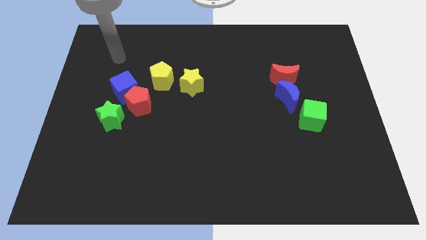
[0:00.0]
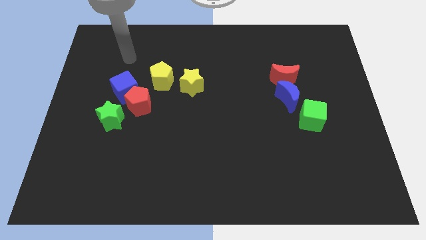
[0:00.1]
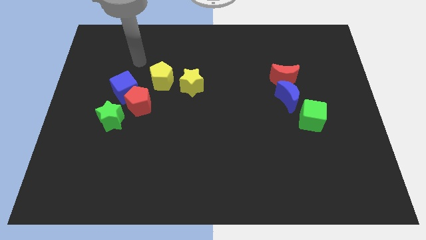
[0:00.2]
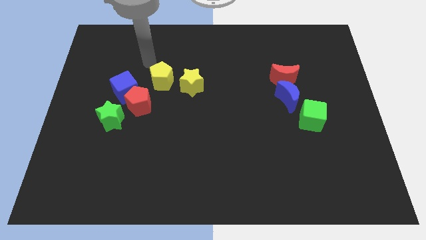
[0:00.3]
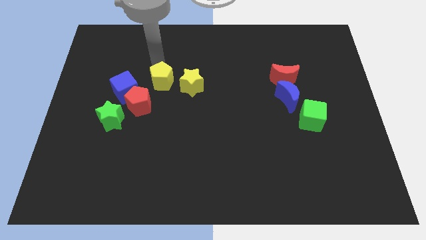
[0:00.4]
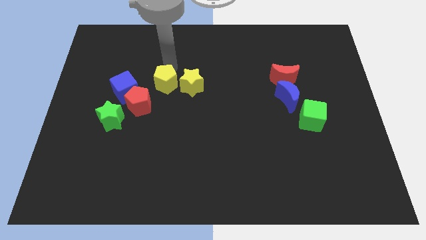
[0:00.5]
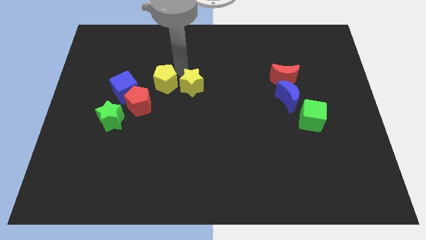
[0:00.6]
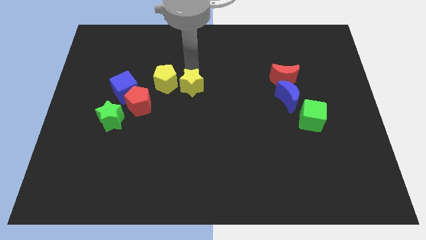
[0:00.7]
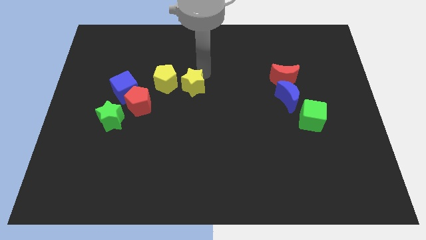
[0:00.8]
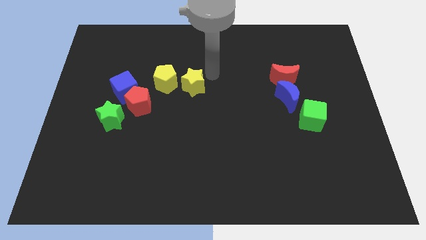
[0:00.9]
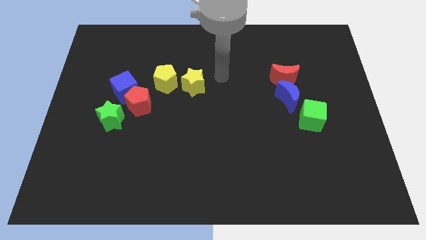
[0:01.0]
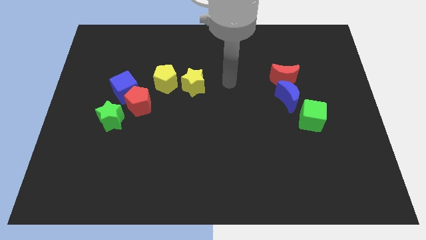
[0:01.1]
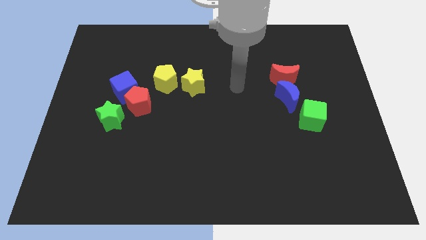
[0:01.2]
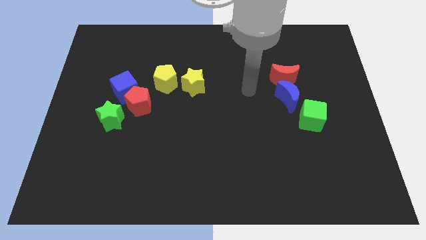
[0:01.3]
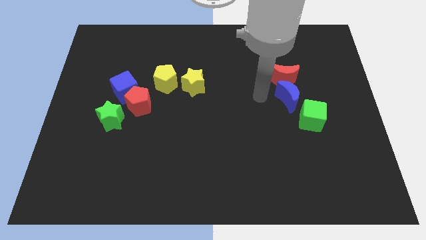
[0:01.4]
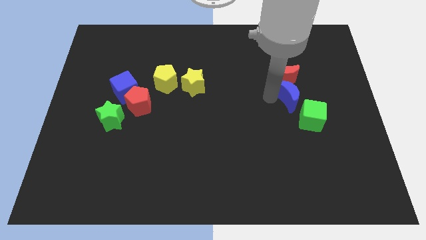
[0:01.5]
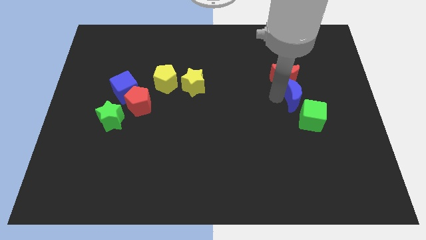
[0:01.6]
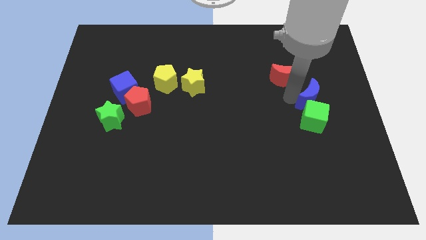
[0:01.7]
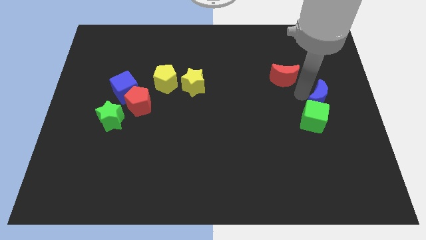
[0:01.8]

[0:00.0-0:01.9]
separate the red moon from the blue moon

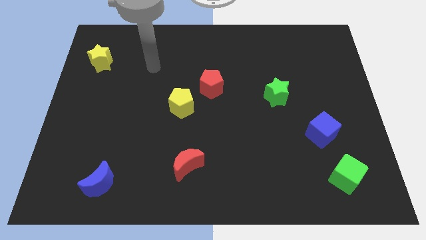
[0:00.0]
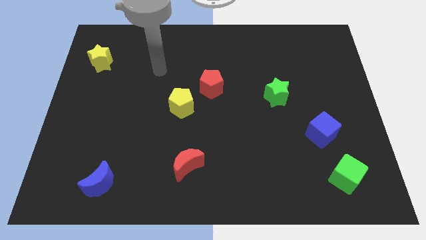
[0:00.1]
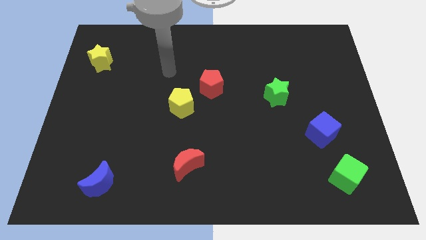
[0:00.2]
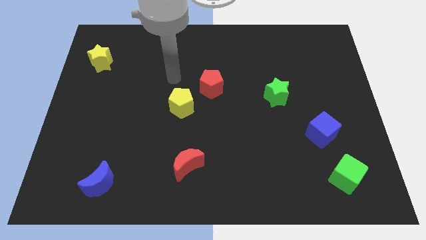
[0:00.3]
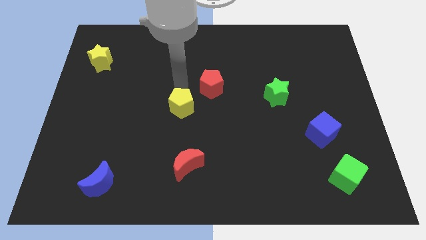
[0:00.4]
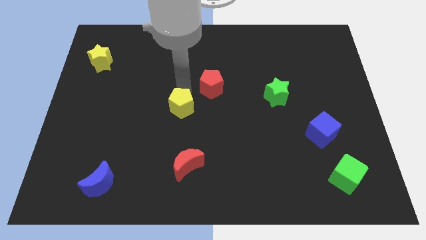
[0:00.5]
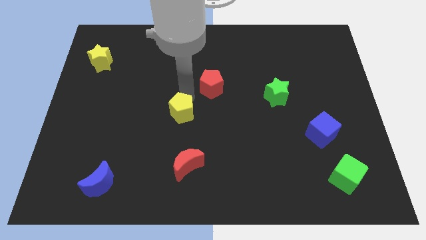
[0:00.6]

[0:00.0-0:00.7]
move the red pentagon away from the yellow pentagon

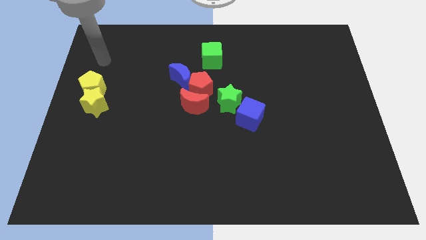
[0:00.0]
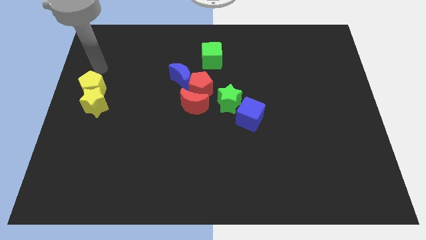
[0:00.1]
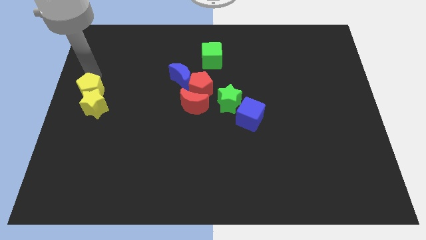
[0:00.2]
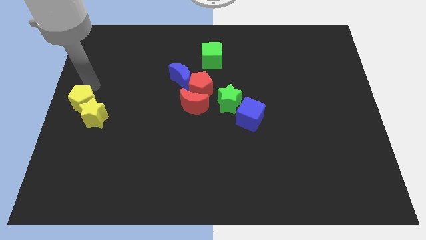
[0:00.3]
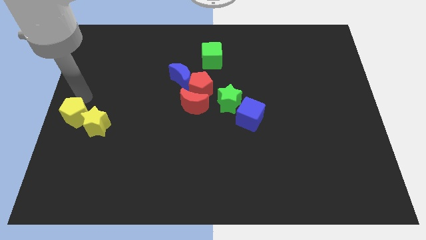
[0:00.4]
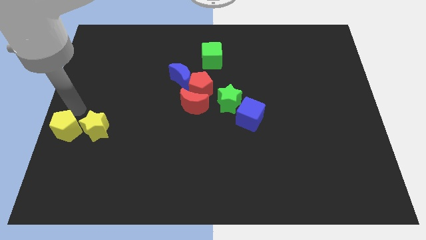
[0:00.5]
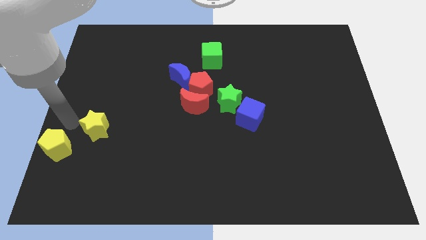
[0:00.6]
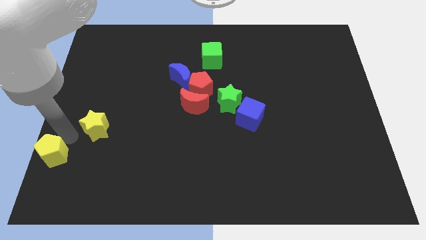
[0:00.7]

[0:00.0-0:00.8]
separate the yellow star from the yellow pentagon

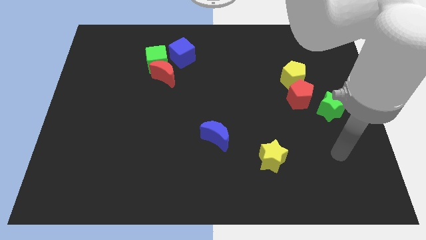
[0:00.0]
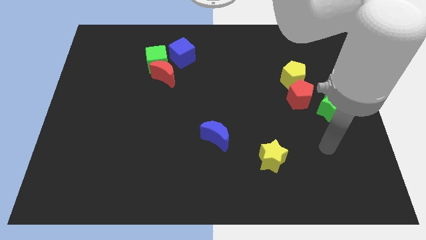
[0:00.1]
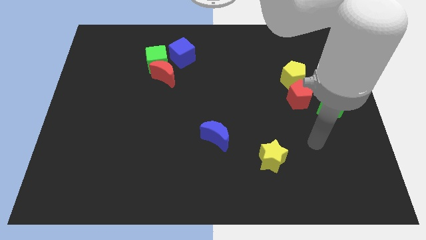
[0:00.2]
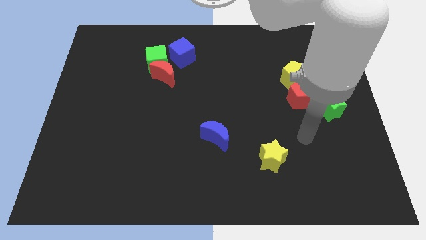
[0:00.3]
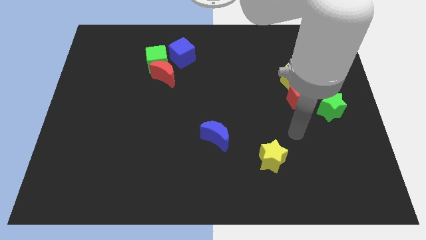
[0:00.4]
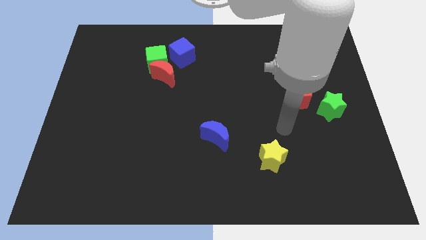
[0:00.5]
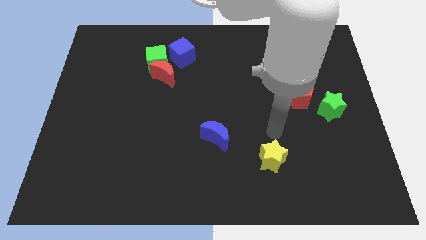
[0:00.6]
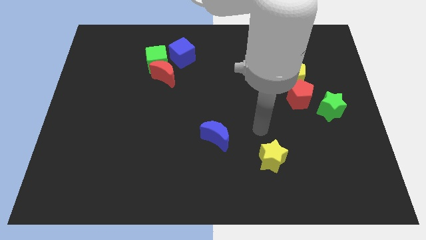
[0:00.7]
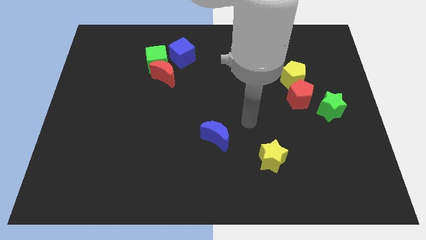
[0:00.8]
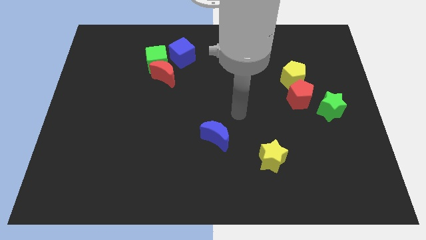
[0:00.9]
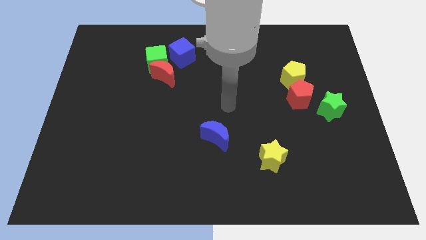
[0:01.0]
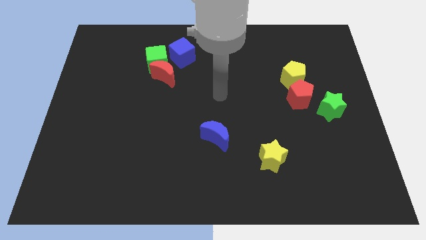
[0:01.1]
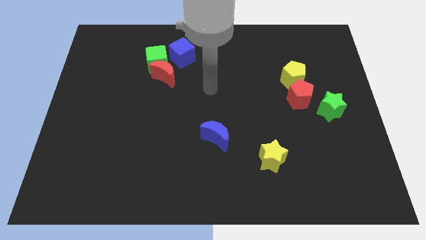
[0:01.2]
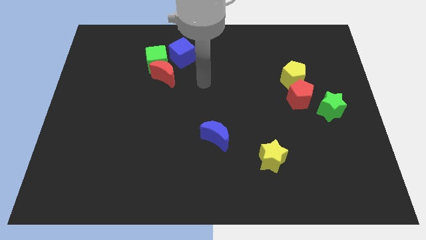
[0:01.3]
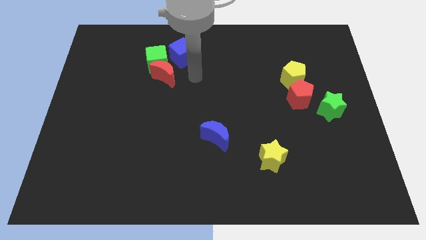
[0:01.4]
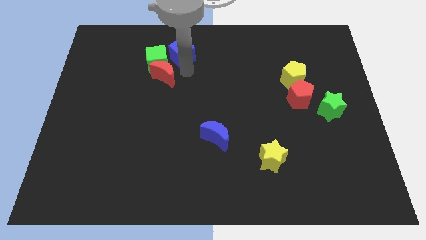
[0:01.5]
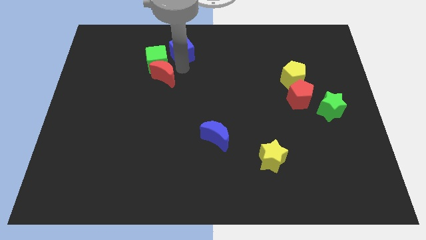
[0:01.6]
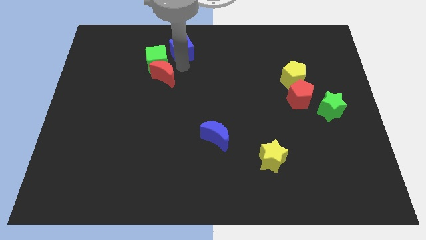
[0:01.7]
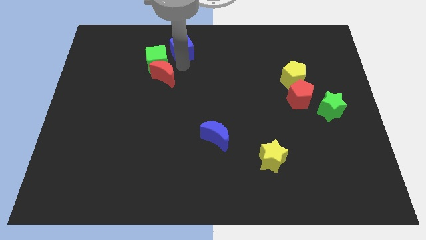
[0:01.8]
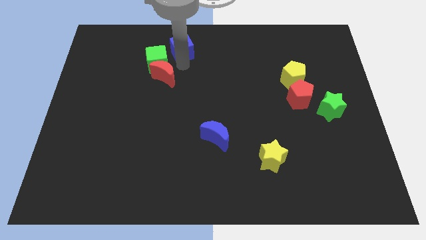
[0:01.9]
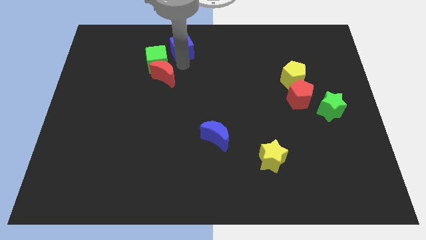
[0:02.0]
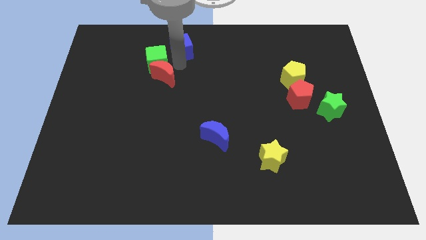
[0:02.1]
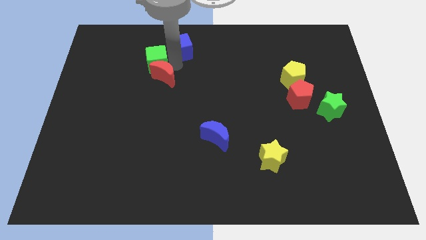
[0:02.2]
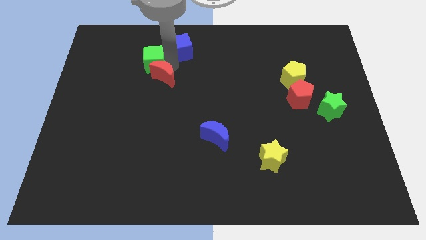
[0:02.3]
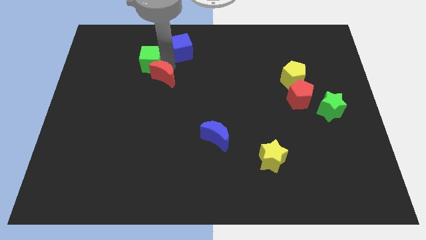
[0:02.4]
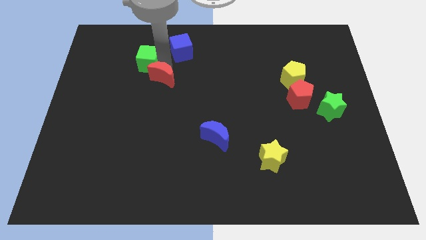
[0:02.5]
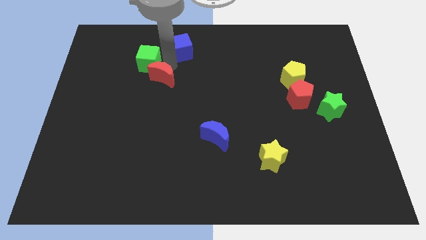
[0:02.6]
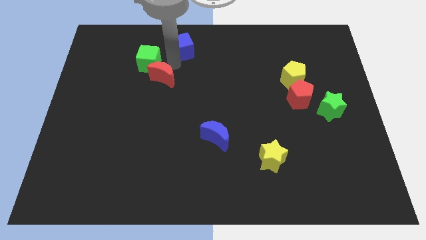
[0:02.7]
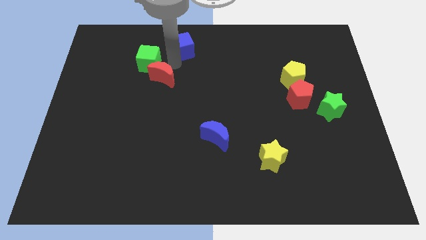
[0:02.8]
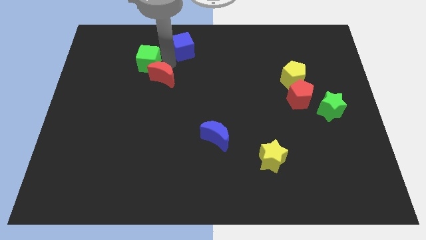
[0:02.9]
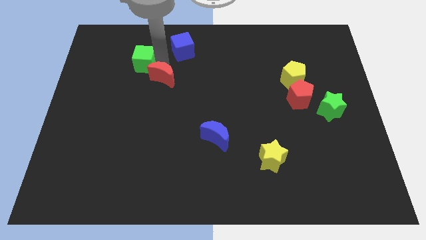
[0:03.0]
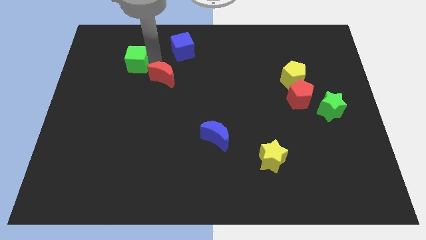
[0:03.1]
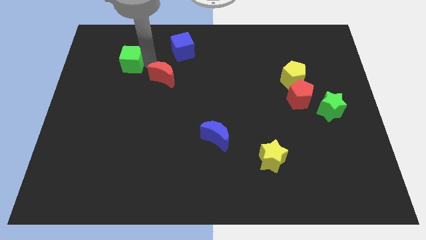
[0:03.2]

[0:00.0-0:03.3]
move the green cube away from the red moon and blue cube

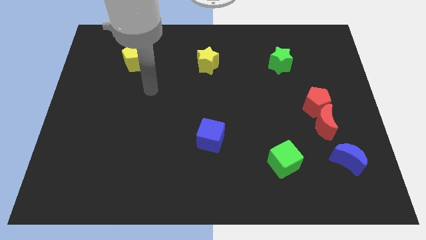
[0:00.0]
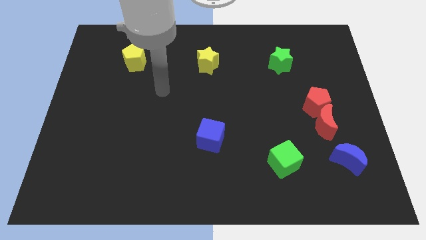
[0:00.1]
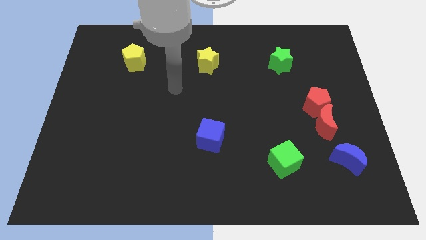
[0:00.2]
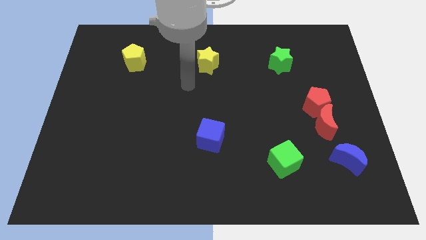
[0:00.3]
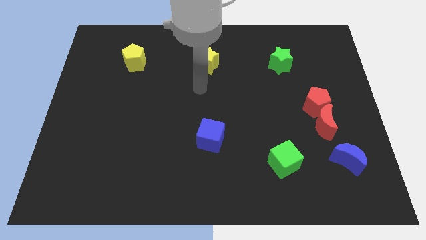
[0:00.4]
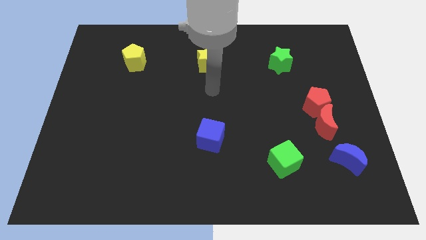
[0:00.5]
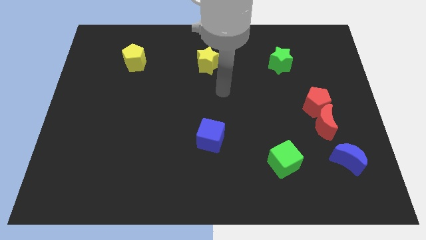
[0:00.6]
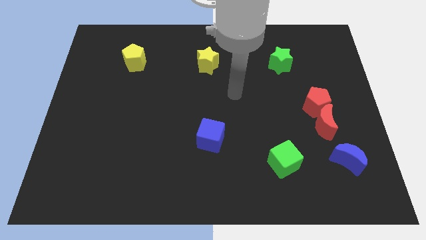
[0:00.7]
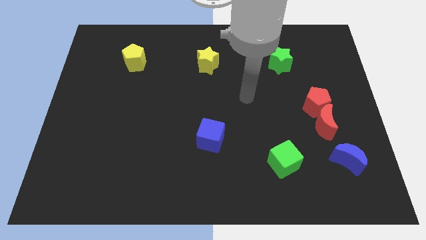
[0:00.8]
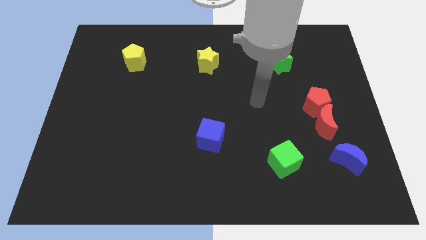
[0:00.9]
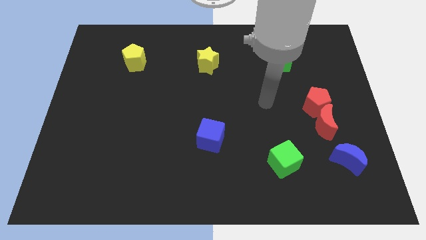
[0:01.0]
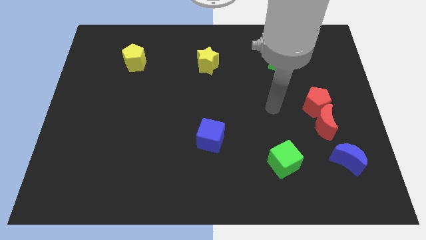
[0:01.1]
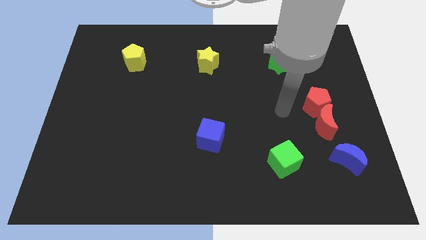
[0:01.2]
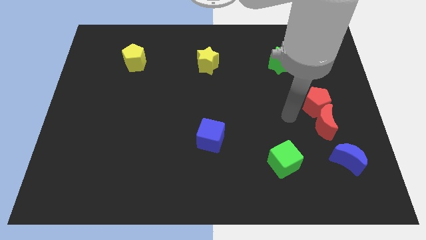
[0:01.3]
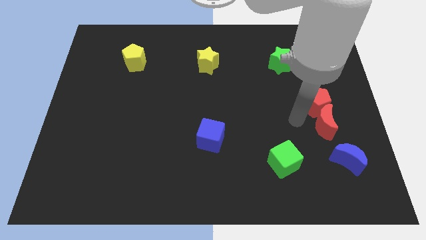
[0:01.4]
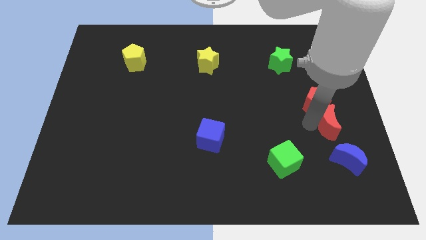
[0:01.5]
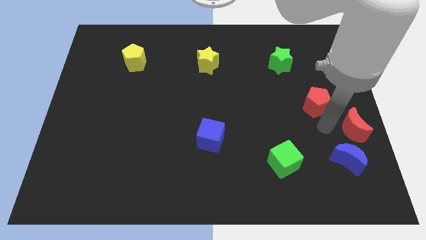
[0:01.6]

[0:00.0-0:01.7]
move the red pentagon away from the red moon

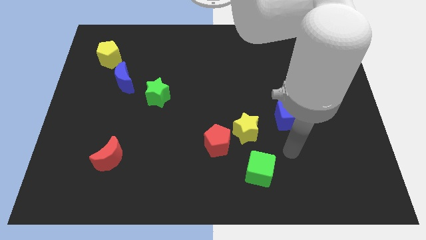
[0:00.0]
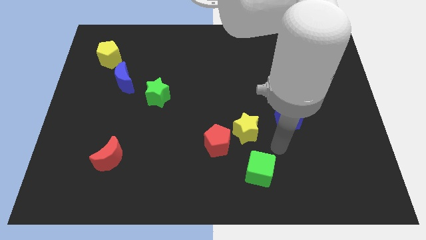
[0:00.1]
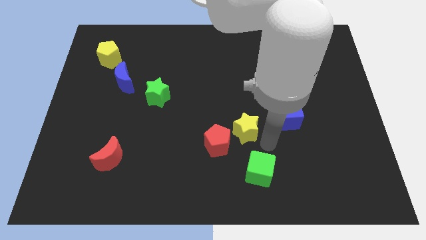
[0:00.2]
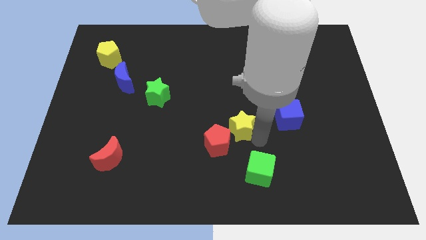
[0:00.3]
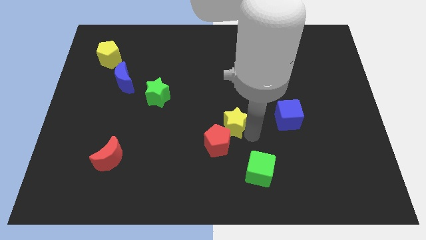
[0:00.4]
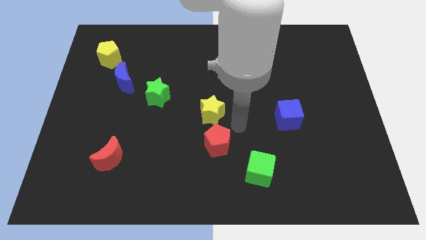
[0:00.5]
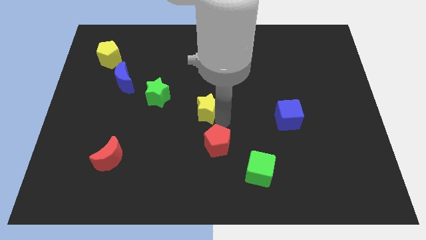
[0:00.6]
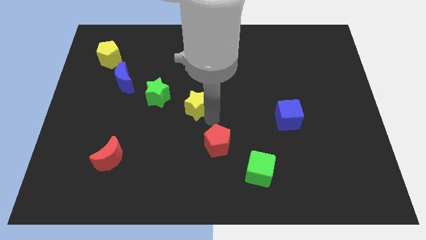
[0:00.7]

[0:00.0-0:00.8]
move the red pentagon away from the yellow star
